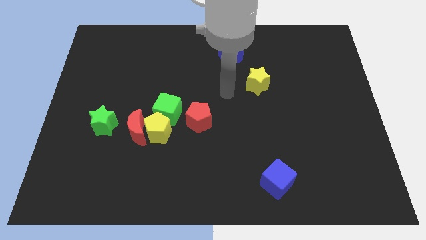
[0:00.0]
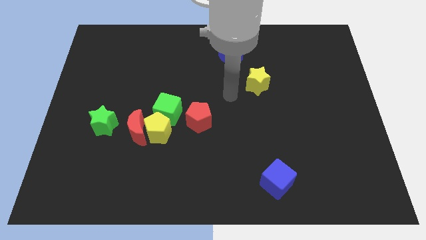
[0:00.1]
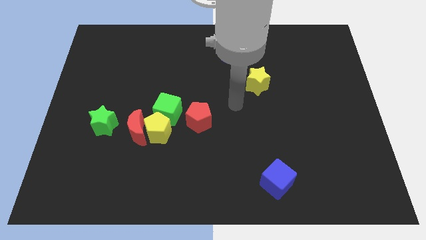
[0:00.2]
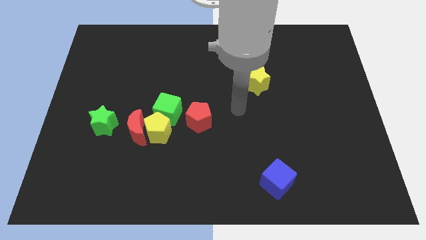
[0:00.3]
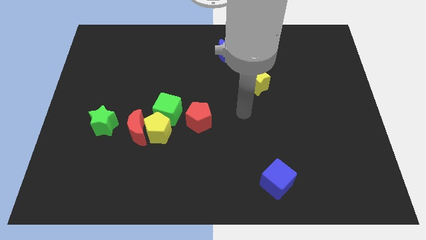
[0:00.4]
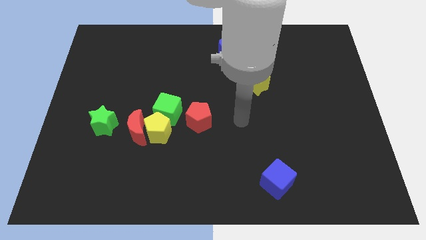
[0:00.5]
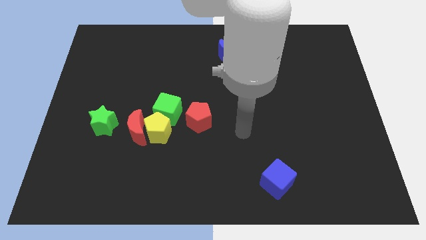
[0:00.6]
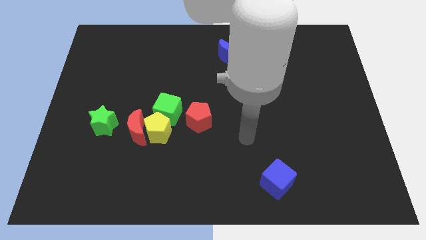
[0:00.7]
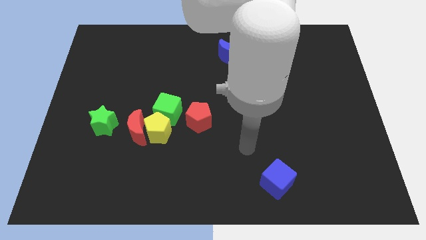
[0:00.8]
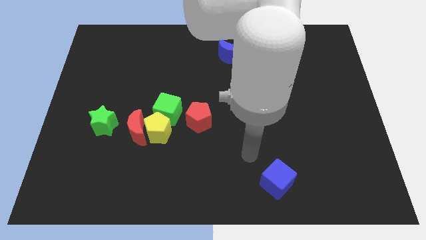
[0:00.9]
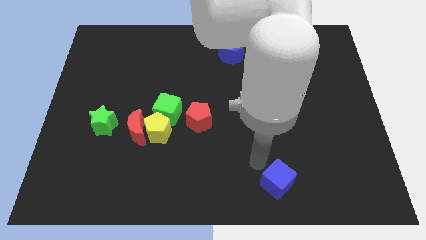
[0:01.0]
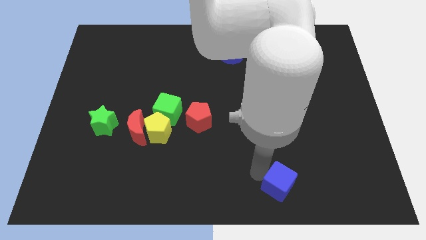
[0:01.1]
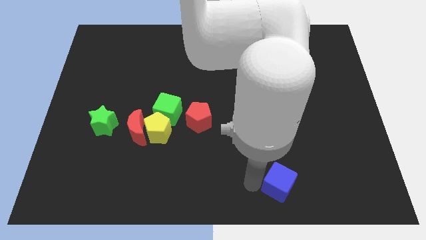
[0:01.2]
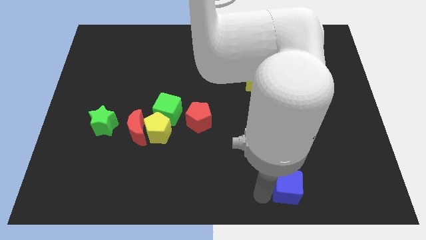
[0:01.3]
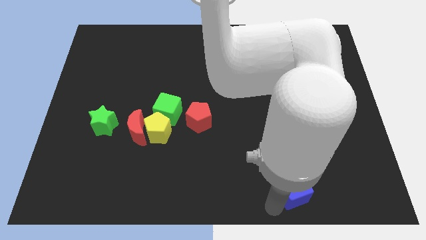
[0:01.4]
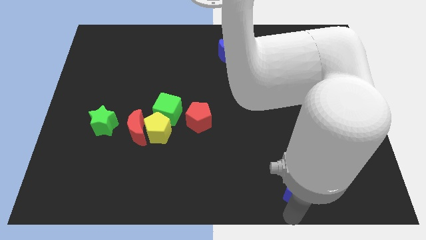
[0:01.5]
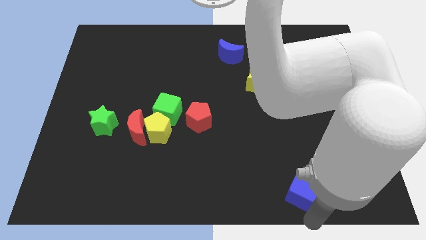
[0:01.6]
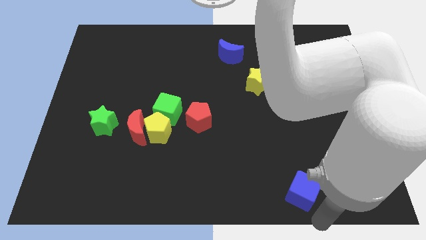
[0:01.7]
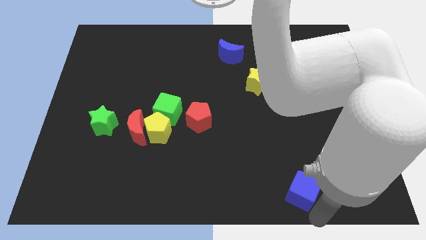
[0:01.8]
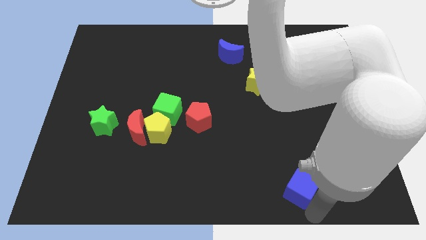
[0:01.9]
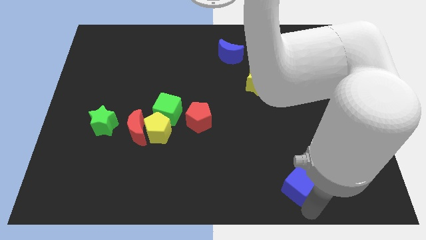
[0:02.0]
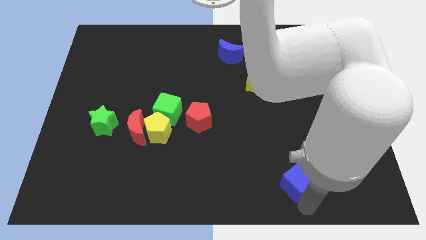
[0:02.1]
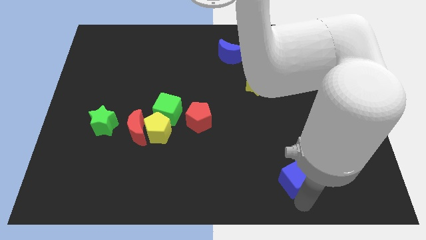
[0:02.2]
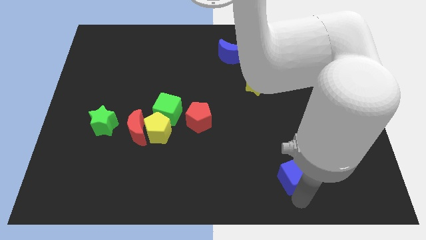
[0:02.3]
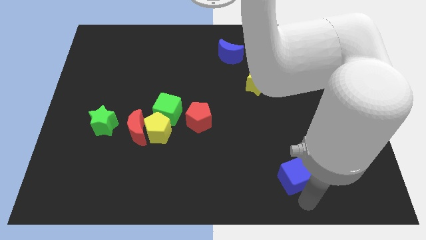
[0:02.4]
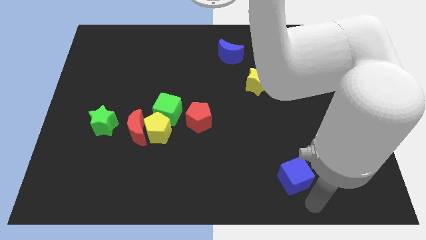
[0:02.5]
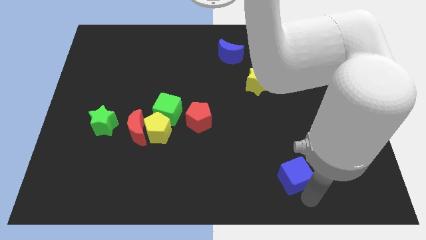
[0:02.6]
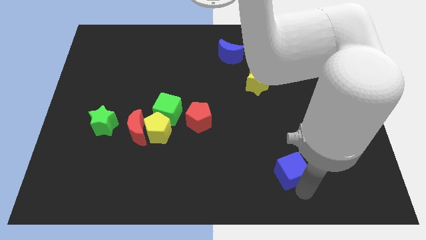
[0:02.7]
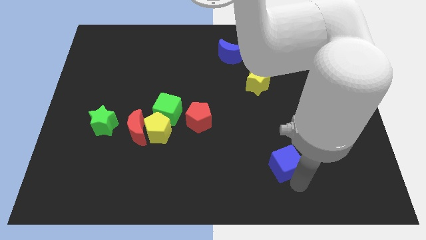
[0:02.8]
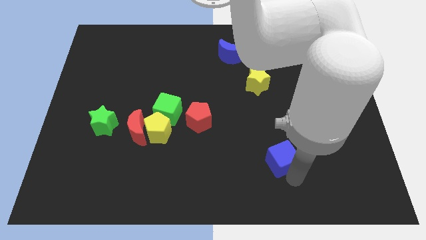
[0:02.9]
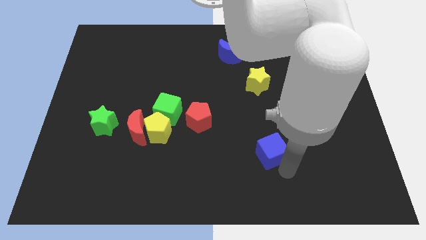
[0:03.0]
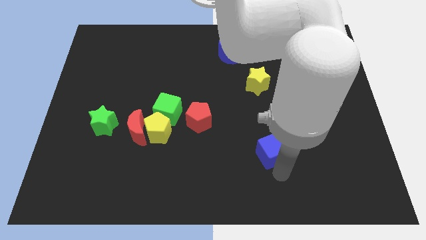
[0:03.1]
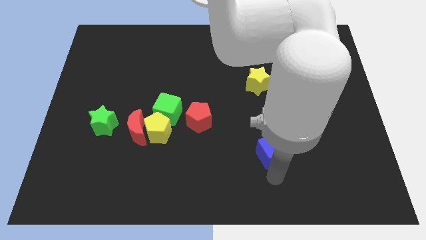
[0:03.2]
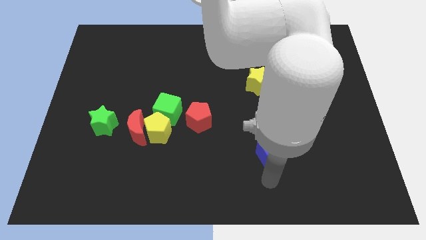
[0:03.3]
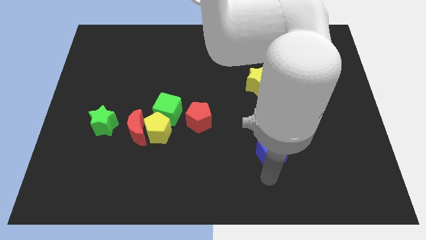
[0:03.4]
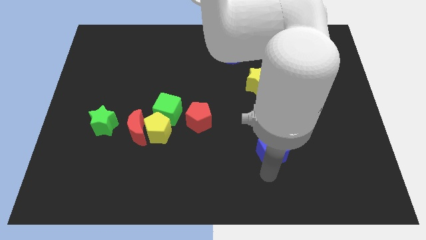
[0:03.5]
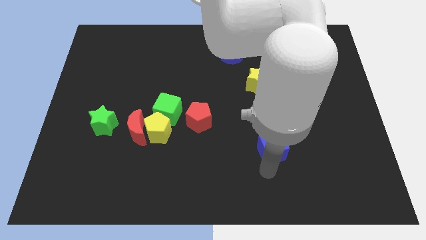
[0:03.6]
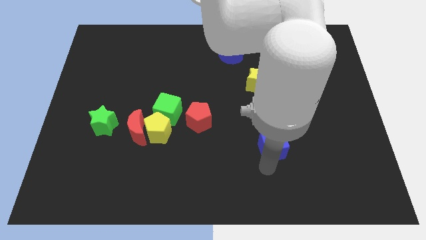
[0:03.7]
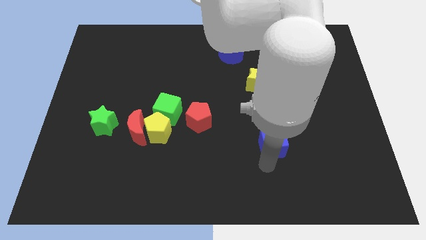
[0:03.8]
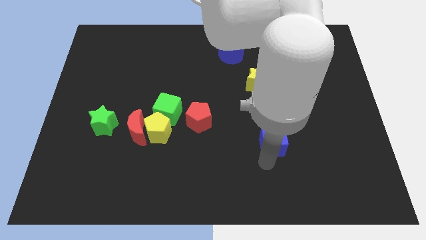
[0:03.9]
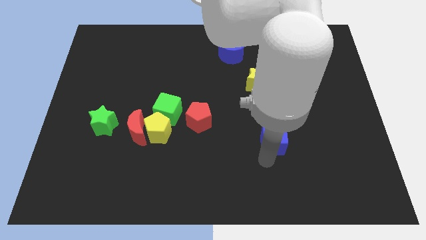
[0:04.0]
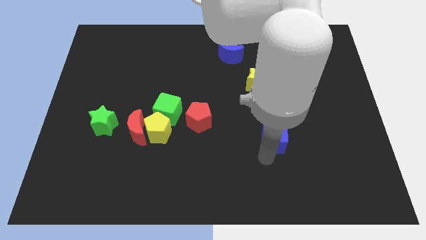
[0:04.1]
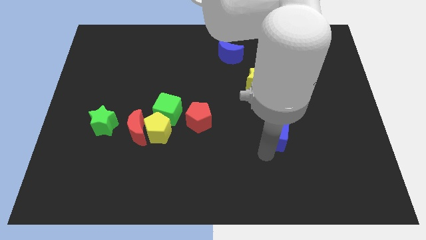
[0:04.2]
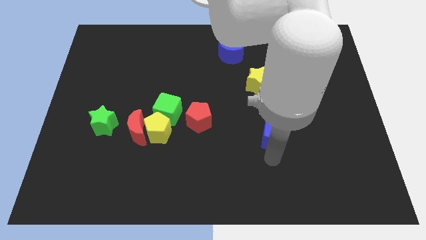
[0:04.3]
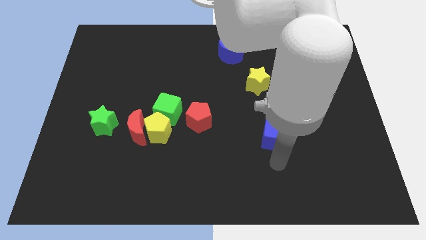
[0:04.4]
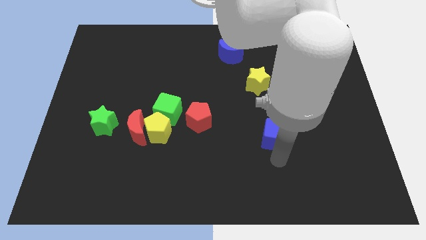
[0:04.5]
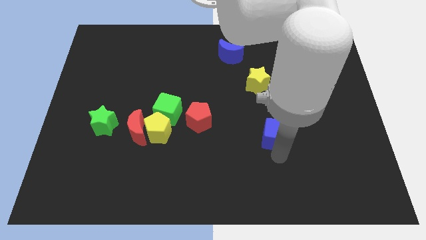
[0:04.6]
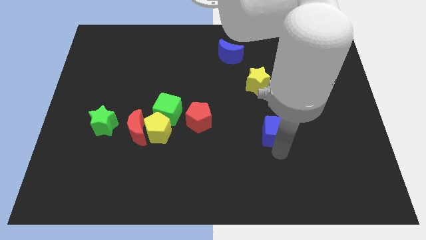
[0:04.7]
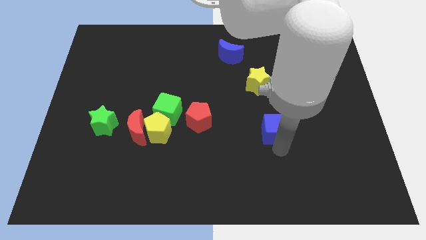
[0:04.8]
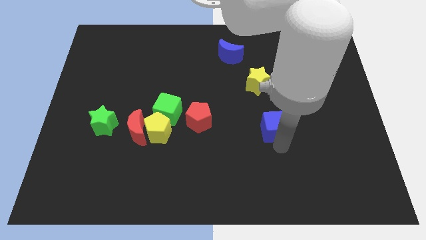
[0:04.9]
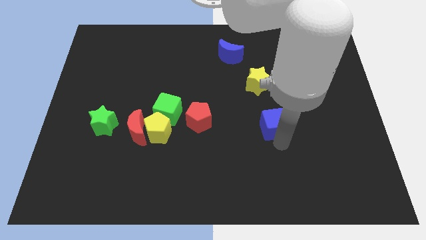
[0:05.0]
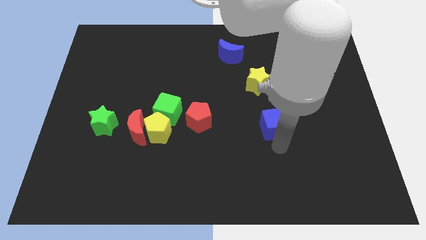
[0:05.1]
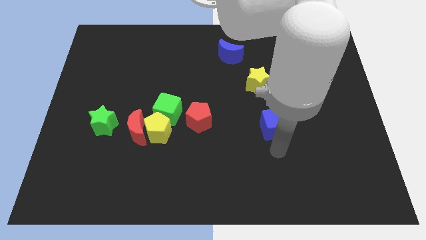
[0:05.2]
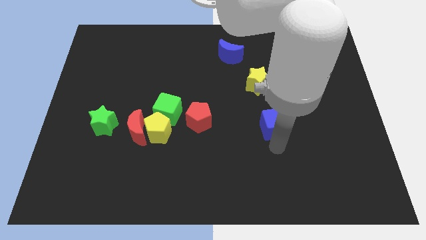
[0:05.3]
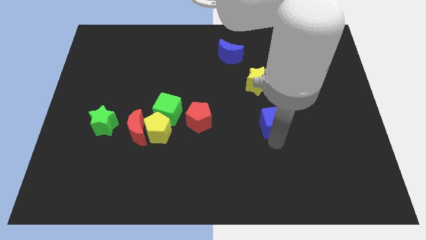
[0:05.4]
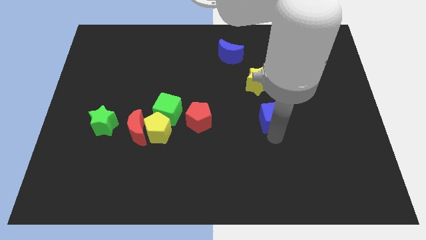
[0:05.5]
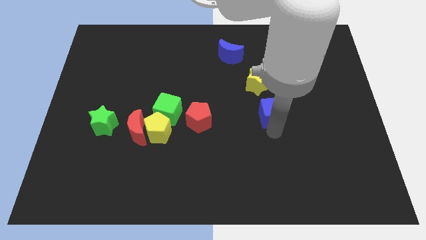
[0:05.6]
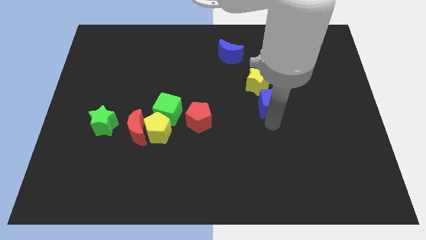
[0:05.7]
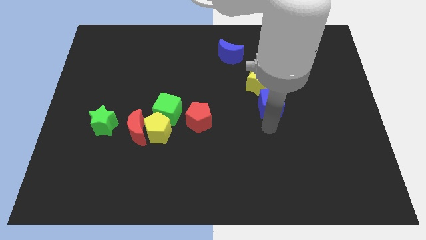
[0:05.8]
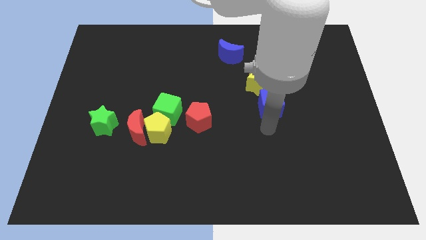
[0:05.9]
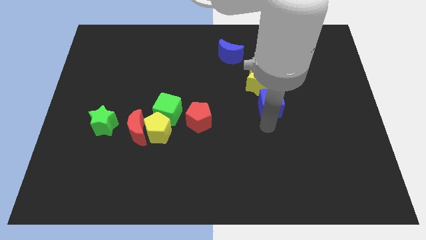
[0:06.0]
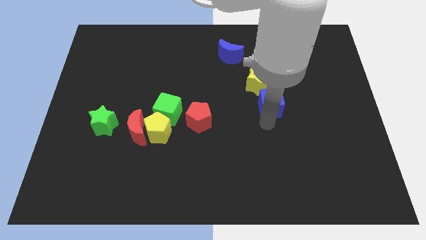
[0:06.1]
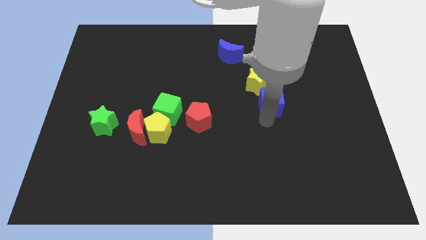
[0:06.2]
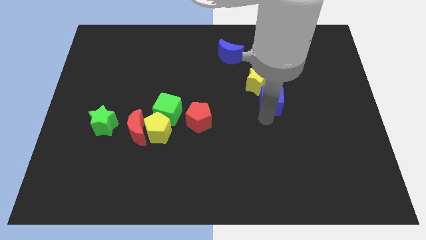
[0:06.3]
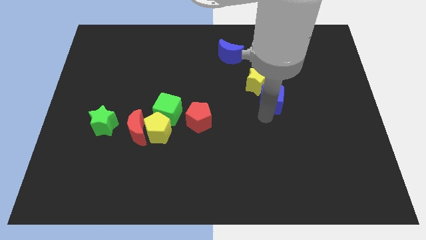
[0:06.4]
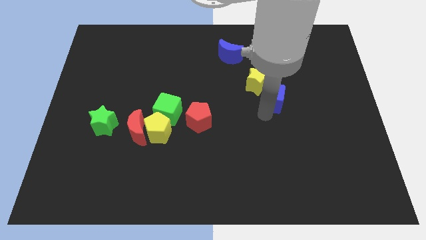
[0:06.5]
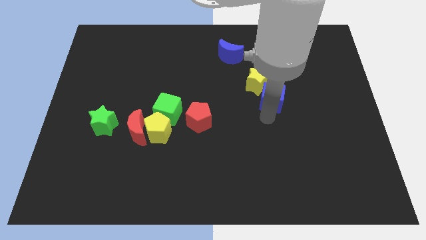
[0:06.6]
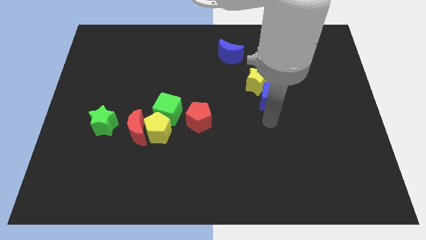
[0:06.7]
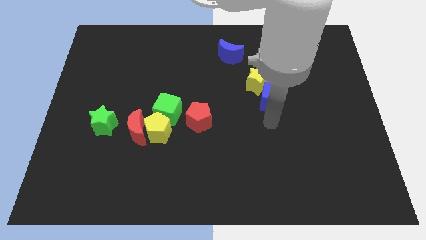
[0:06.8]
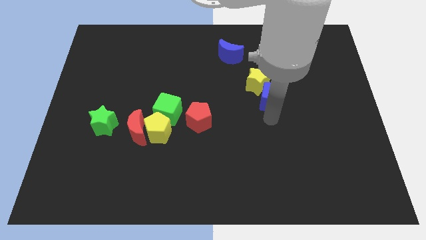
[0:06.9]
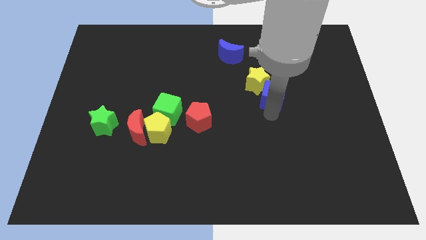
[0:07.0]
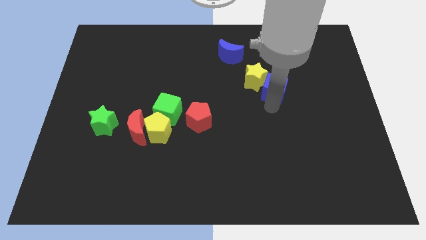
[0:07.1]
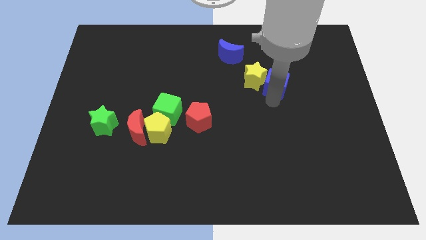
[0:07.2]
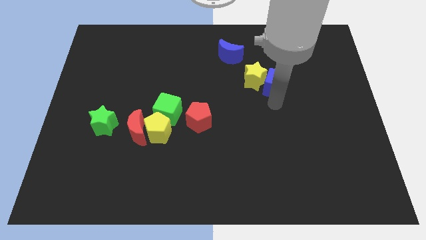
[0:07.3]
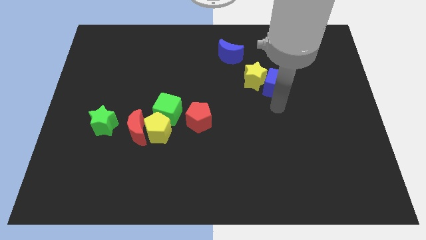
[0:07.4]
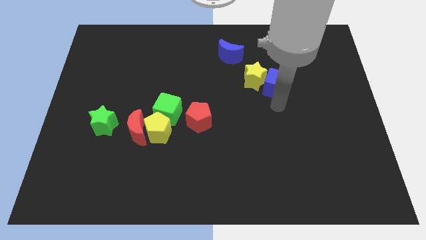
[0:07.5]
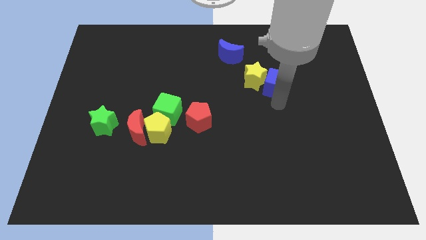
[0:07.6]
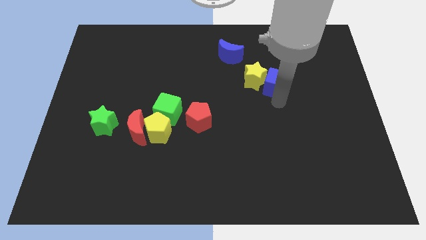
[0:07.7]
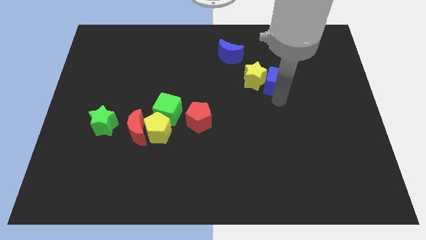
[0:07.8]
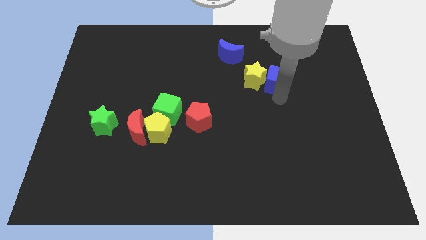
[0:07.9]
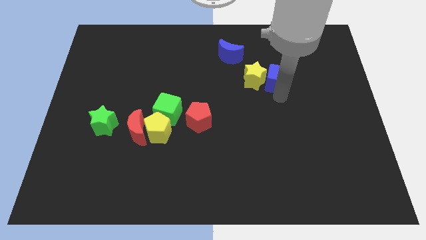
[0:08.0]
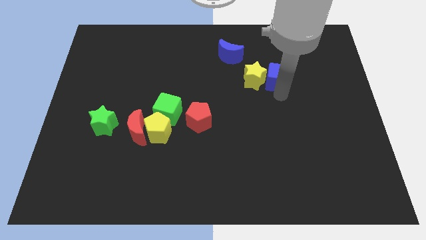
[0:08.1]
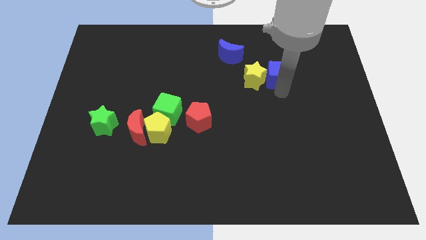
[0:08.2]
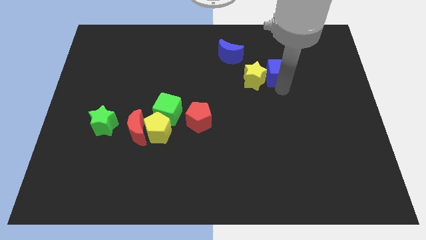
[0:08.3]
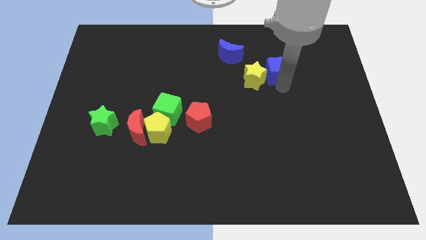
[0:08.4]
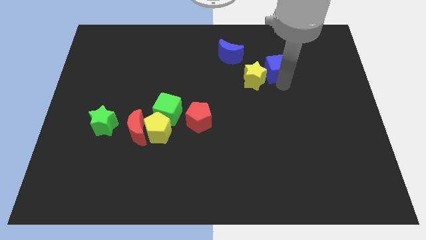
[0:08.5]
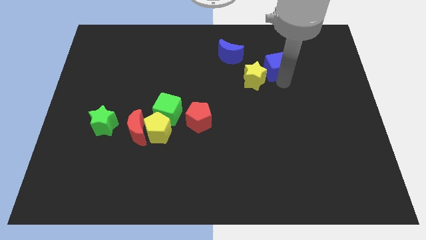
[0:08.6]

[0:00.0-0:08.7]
slide the blue cube right of the blue moon
